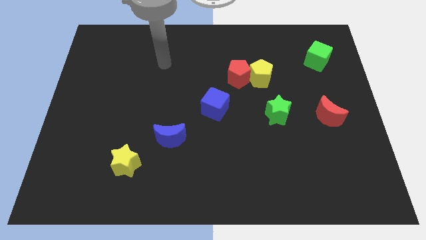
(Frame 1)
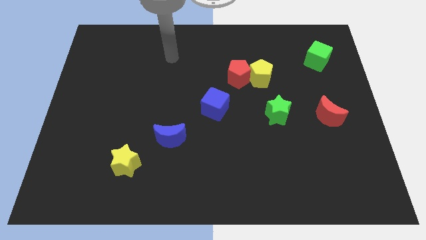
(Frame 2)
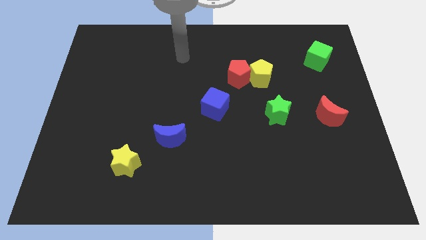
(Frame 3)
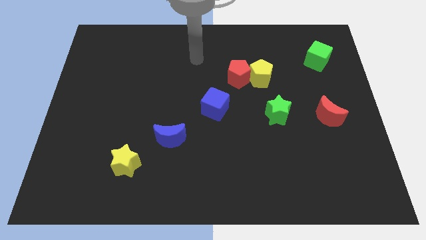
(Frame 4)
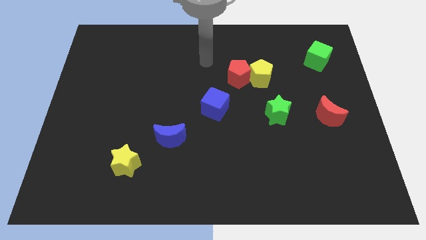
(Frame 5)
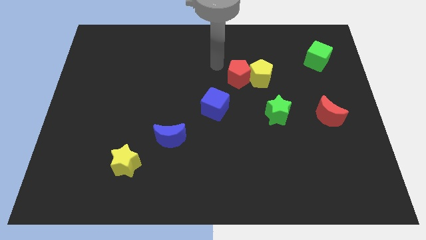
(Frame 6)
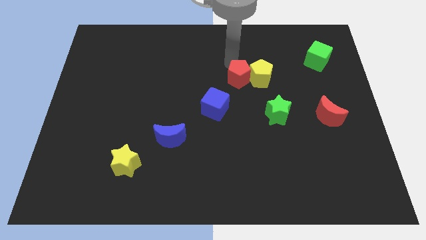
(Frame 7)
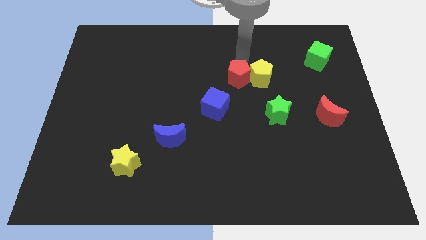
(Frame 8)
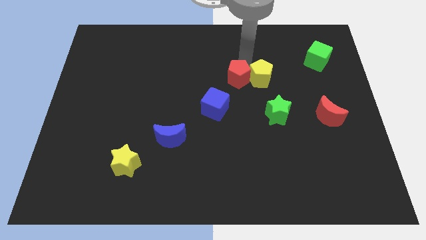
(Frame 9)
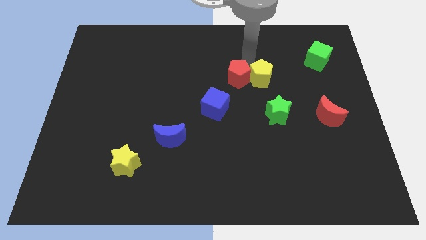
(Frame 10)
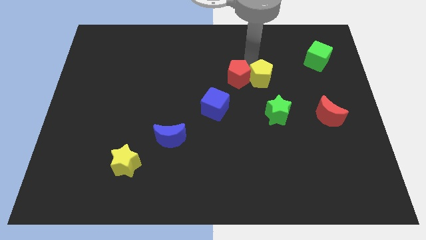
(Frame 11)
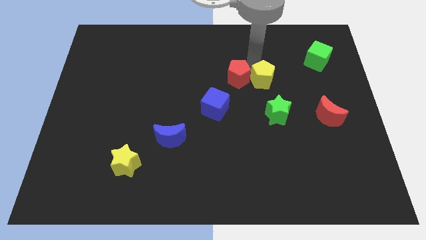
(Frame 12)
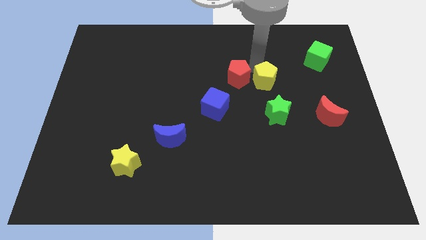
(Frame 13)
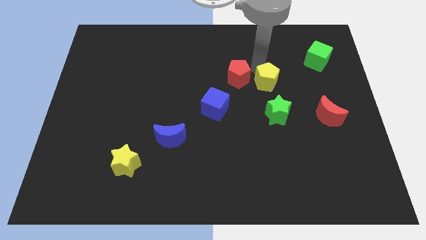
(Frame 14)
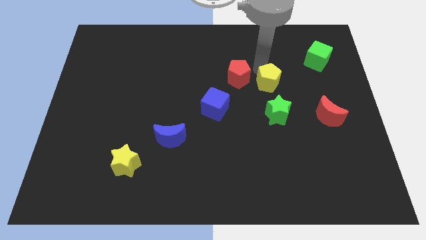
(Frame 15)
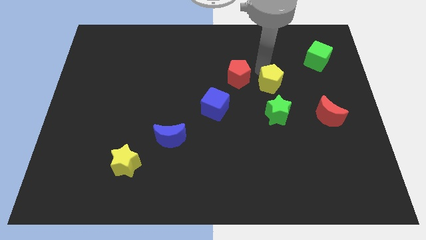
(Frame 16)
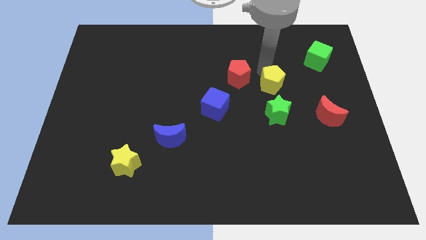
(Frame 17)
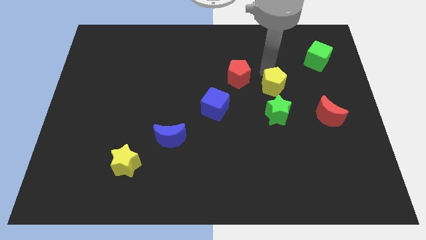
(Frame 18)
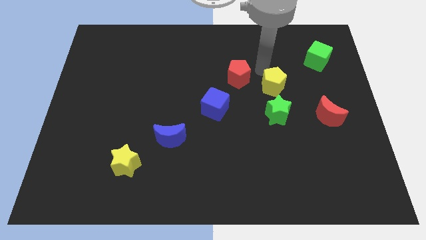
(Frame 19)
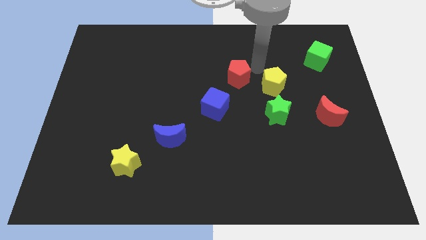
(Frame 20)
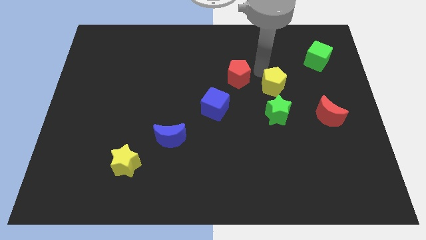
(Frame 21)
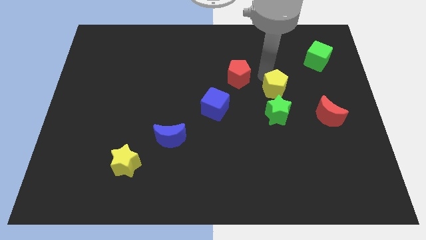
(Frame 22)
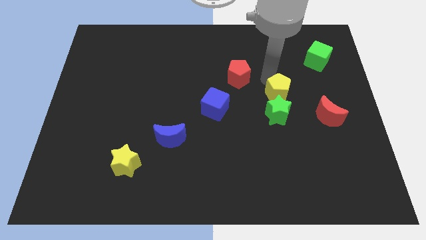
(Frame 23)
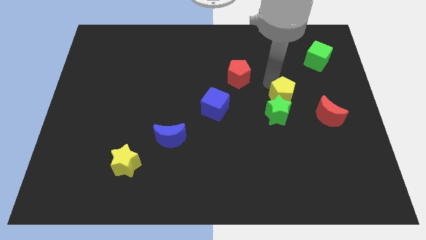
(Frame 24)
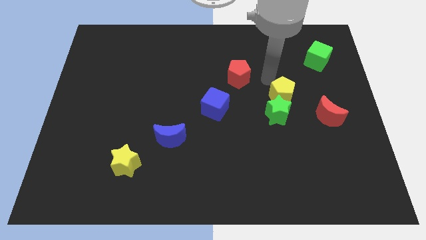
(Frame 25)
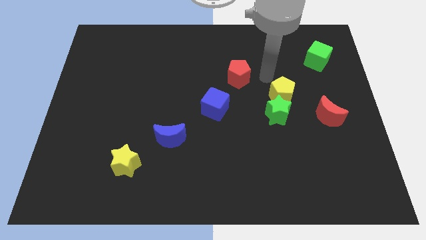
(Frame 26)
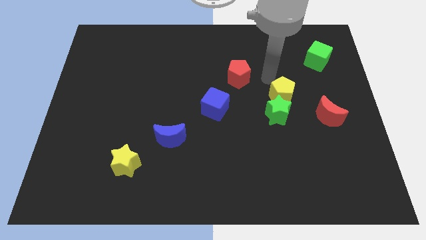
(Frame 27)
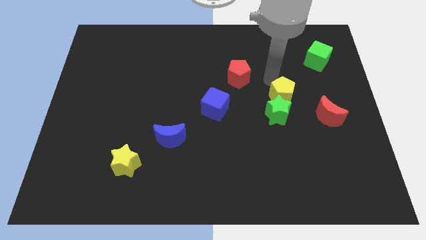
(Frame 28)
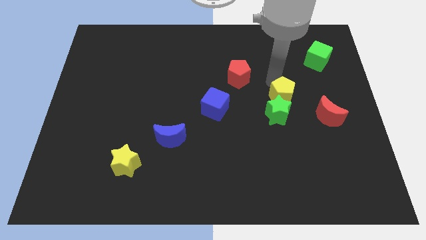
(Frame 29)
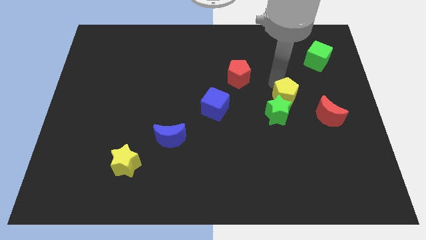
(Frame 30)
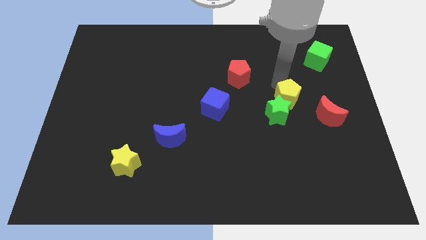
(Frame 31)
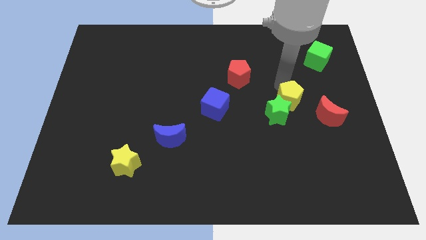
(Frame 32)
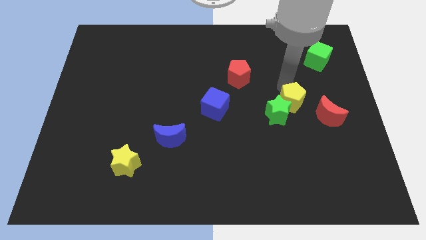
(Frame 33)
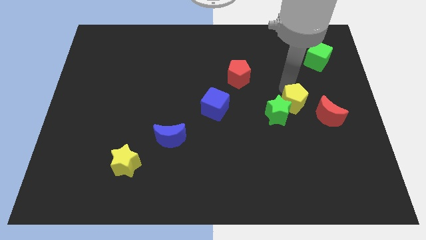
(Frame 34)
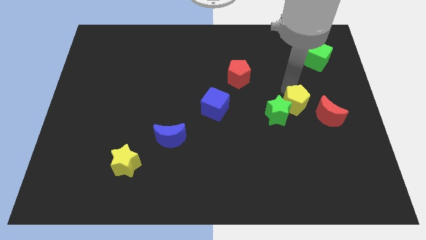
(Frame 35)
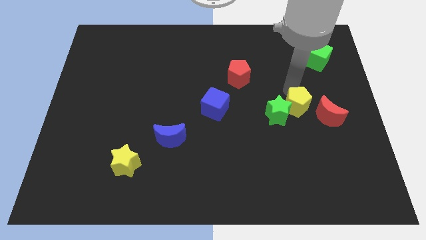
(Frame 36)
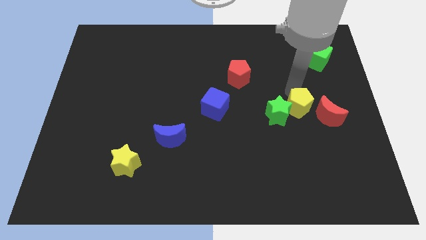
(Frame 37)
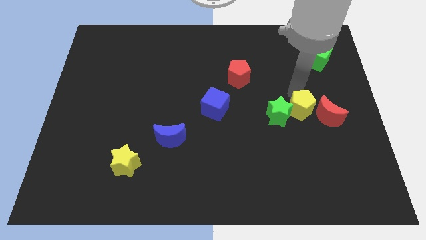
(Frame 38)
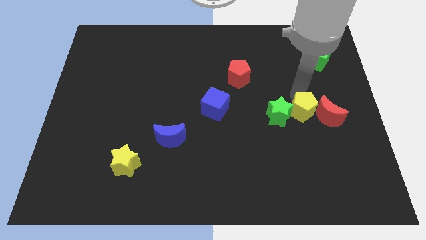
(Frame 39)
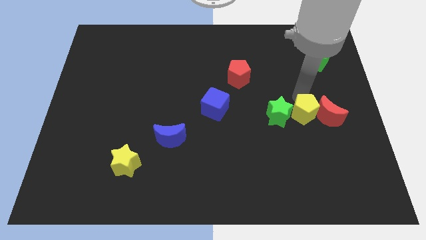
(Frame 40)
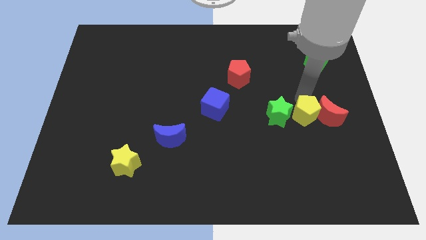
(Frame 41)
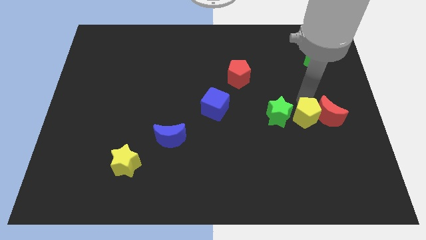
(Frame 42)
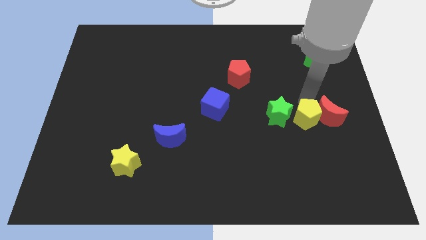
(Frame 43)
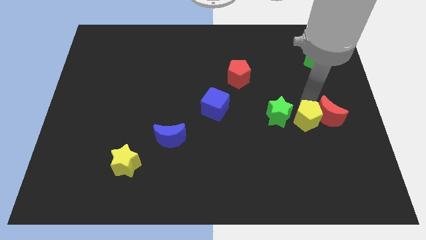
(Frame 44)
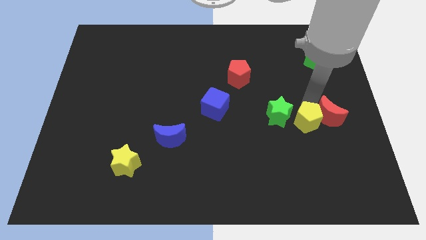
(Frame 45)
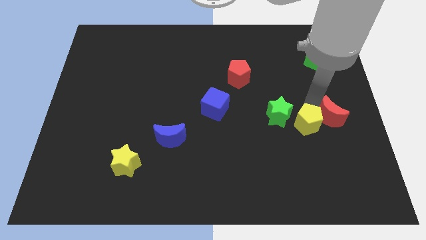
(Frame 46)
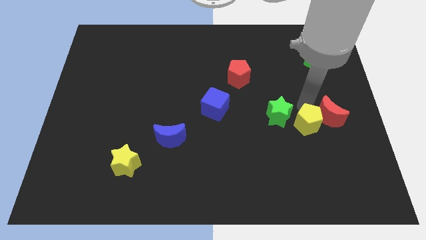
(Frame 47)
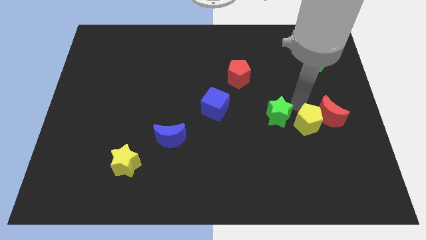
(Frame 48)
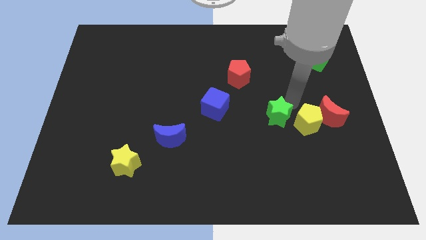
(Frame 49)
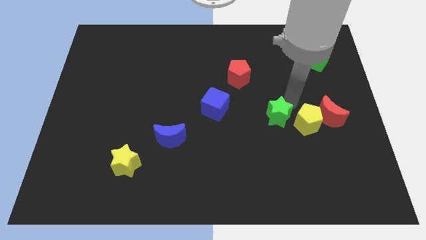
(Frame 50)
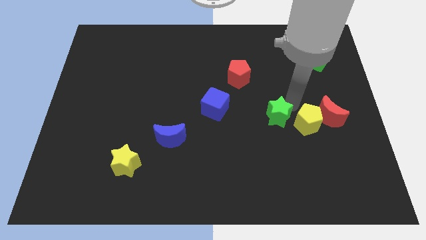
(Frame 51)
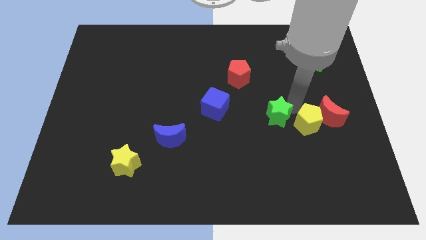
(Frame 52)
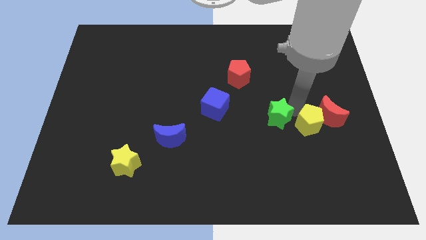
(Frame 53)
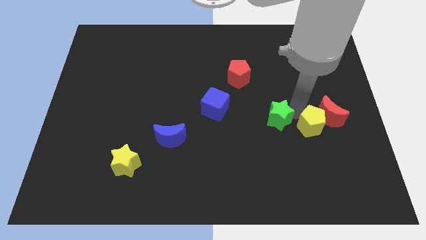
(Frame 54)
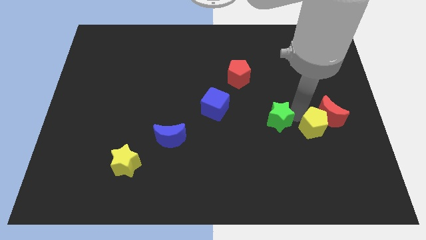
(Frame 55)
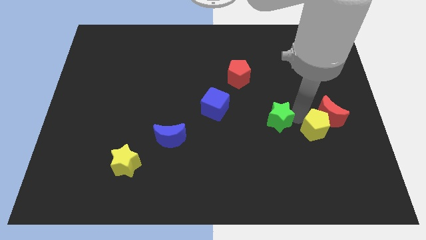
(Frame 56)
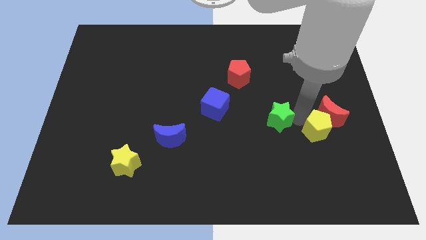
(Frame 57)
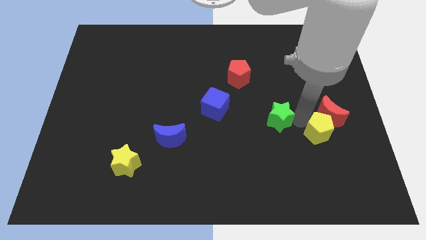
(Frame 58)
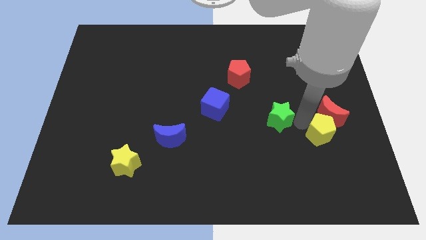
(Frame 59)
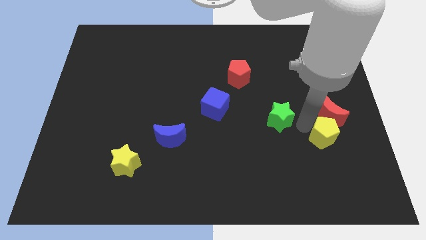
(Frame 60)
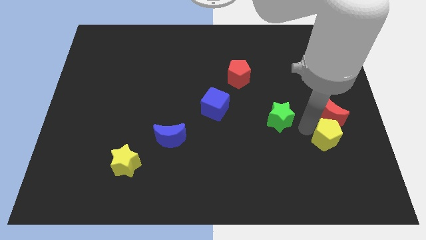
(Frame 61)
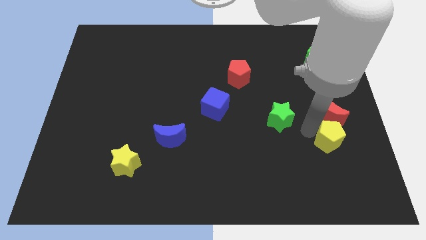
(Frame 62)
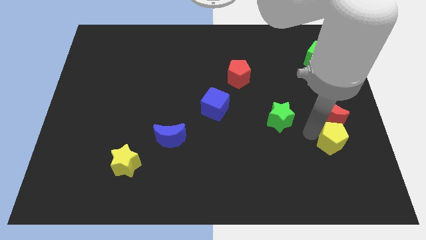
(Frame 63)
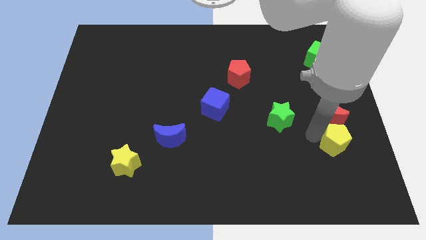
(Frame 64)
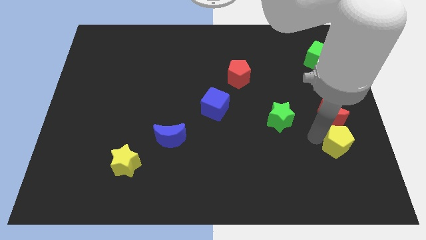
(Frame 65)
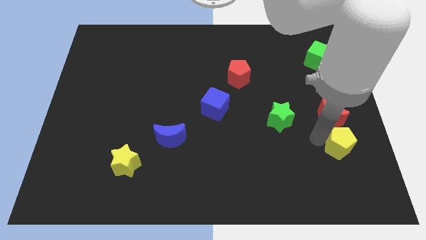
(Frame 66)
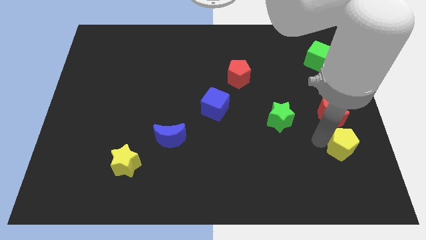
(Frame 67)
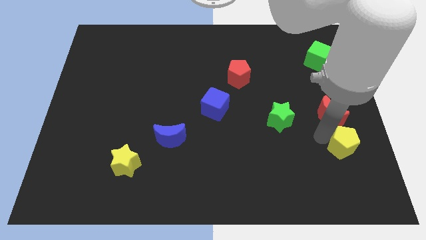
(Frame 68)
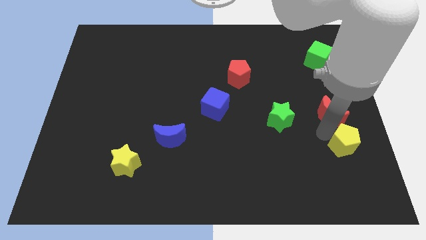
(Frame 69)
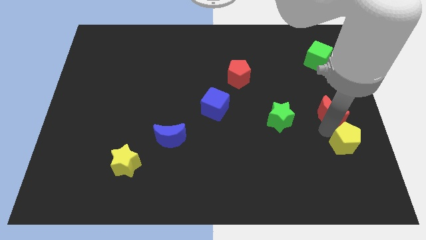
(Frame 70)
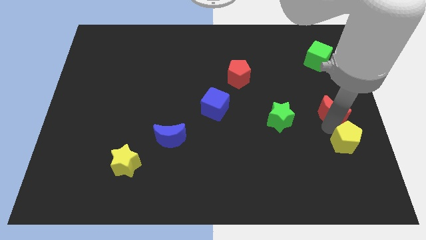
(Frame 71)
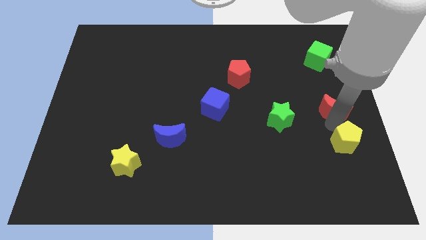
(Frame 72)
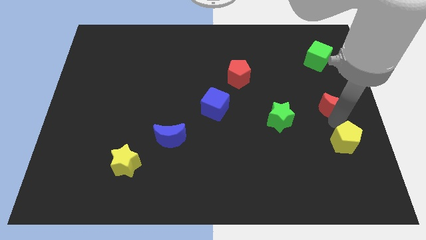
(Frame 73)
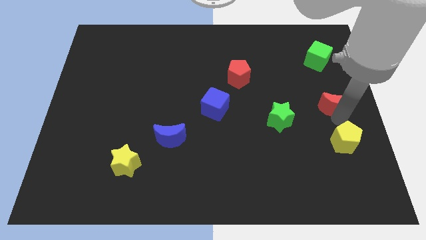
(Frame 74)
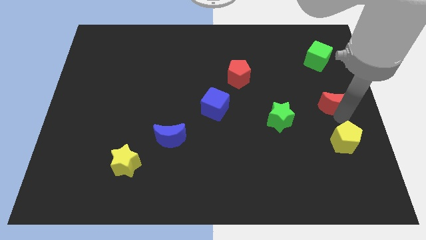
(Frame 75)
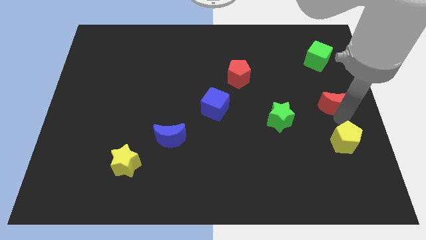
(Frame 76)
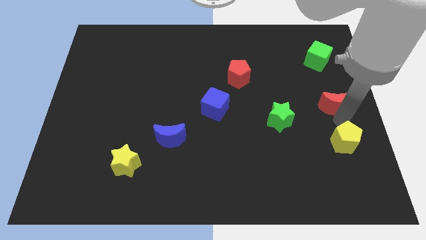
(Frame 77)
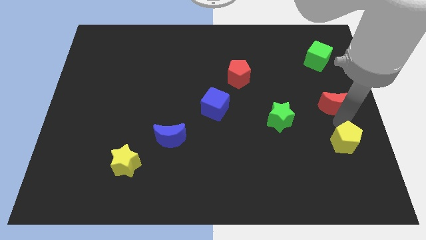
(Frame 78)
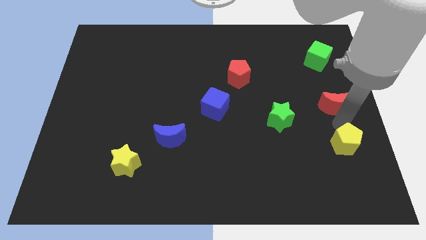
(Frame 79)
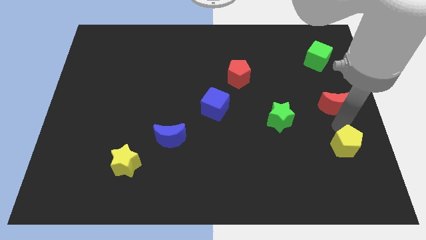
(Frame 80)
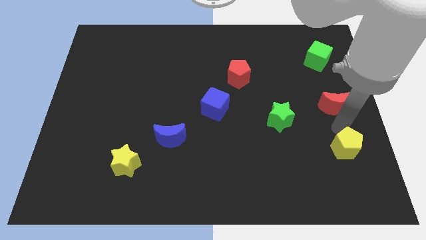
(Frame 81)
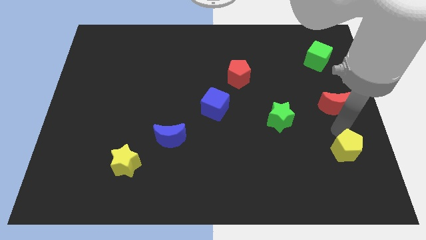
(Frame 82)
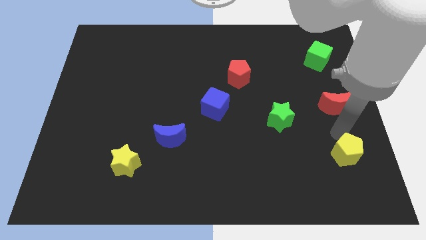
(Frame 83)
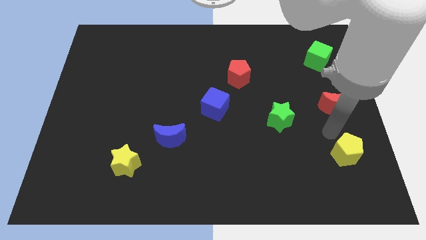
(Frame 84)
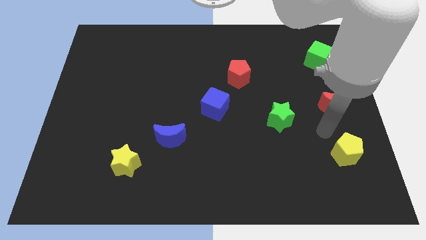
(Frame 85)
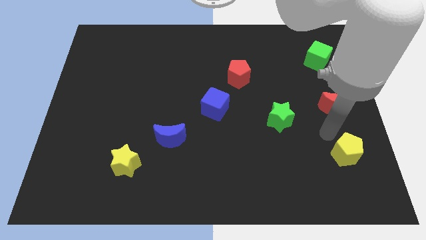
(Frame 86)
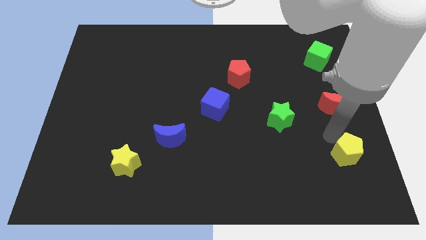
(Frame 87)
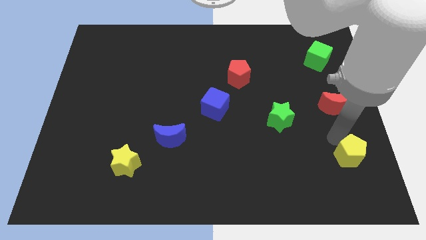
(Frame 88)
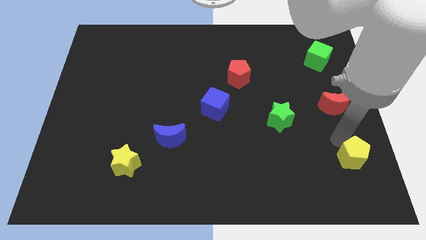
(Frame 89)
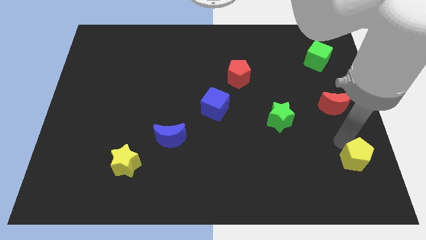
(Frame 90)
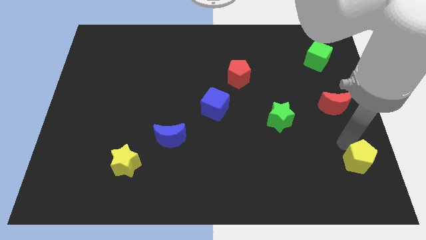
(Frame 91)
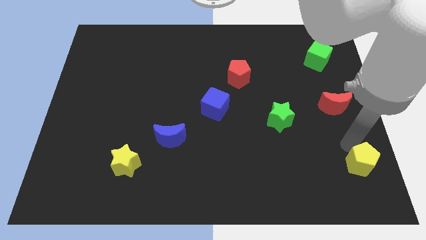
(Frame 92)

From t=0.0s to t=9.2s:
push the yellow pentagon to the bottom right of the board
